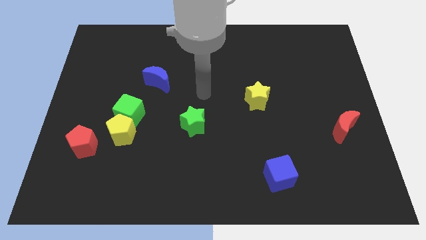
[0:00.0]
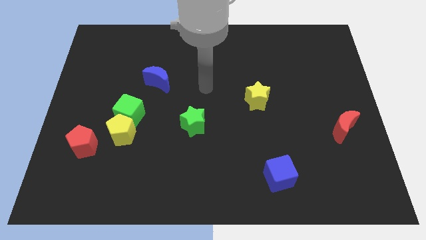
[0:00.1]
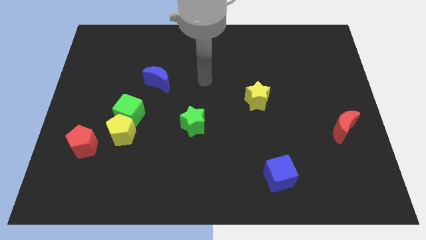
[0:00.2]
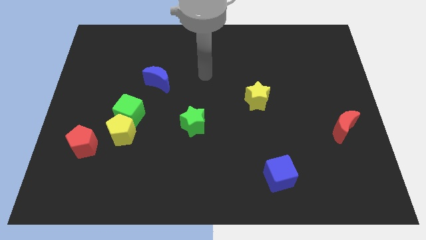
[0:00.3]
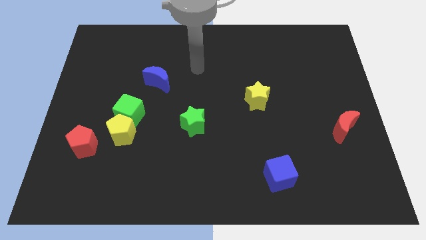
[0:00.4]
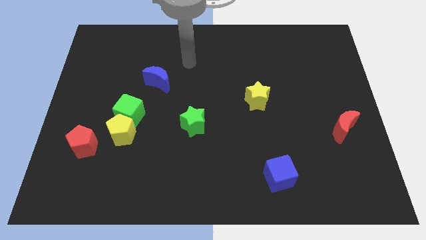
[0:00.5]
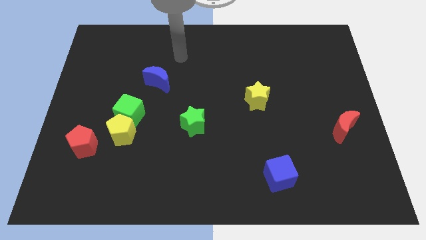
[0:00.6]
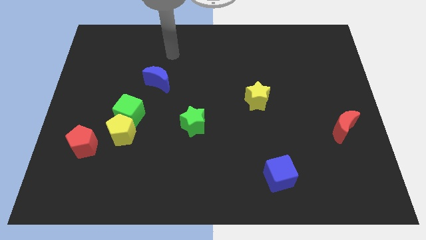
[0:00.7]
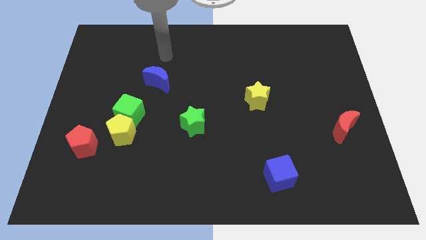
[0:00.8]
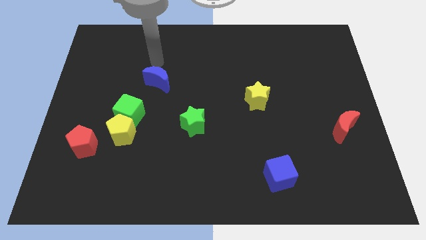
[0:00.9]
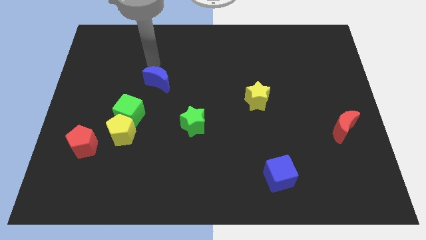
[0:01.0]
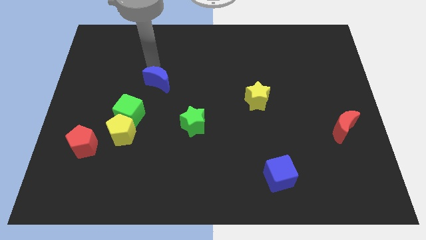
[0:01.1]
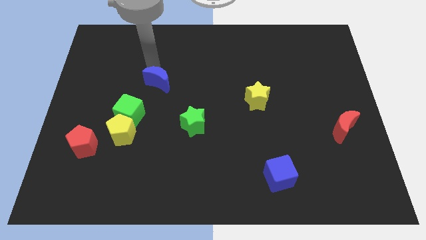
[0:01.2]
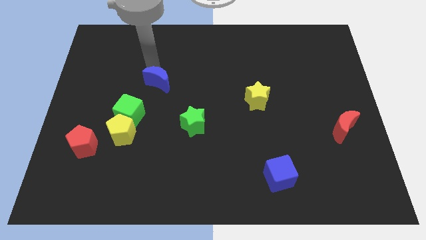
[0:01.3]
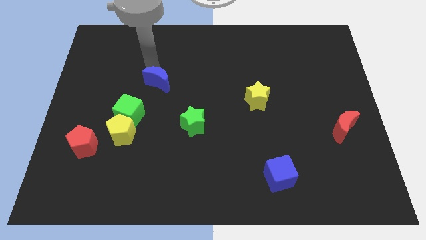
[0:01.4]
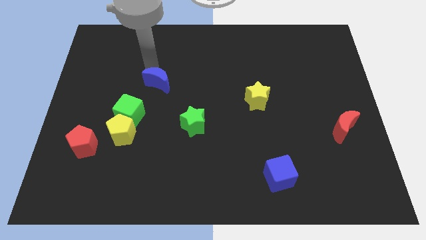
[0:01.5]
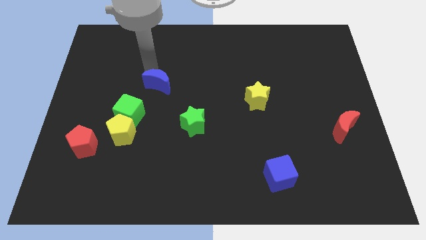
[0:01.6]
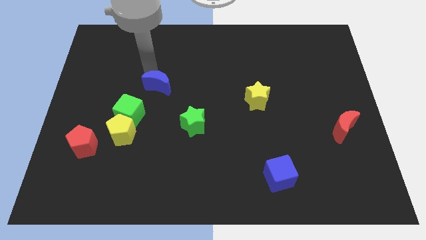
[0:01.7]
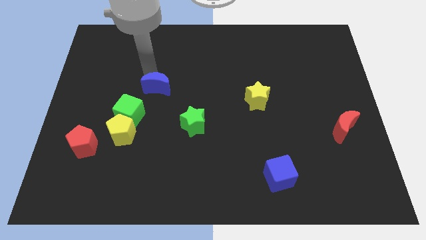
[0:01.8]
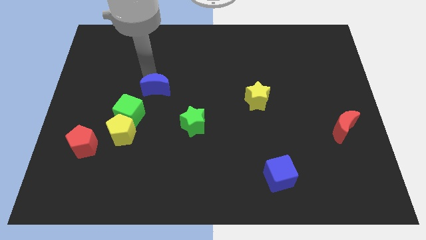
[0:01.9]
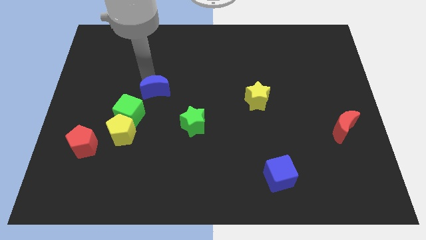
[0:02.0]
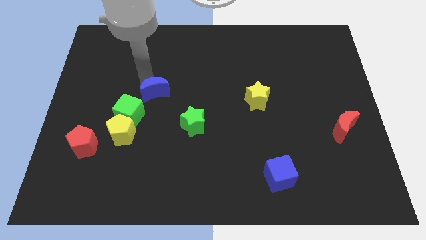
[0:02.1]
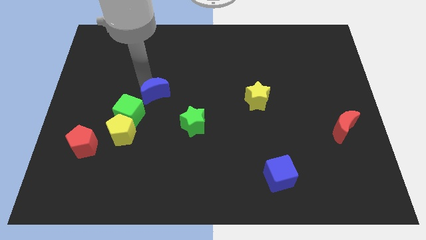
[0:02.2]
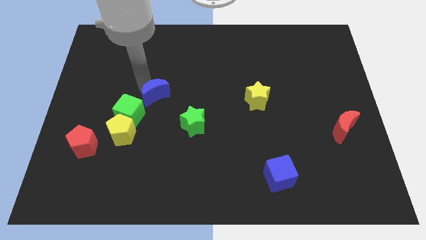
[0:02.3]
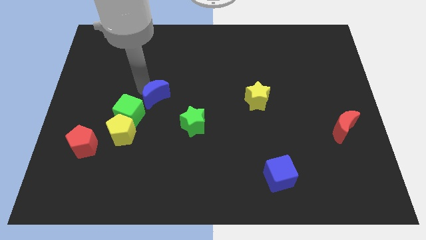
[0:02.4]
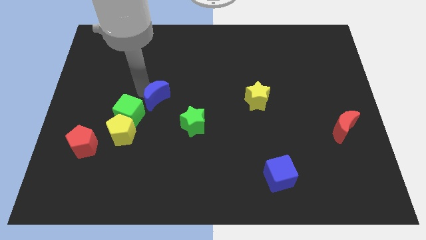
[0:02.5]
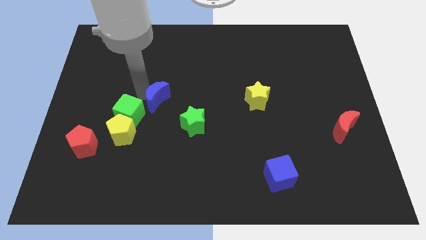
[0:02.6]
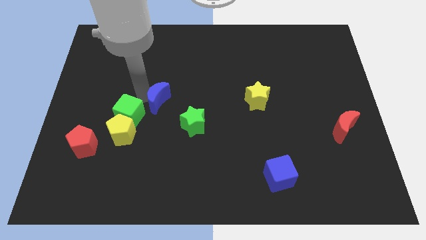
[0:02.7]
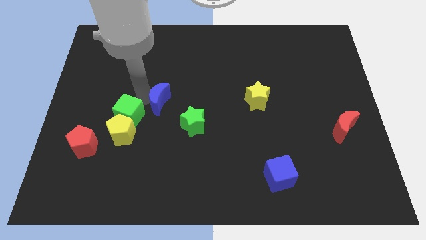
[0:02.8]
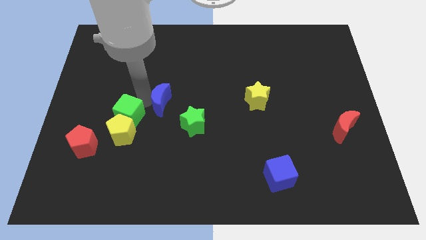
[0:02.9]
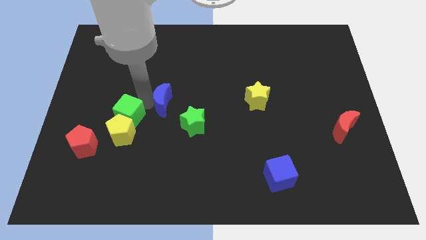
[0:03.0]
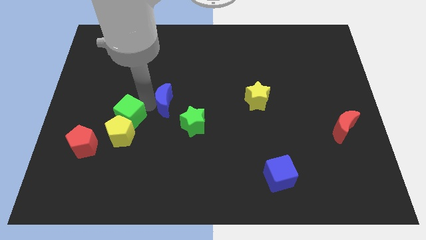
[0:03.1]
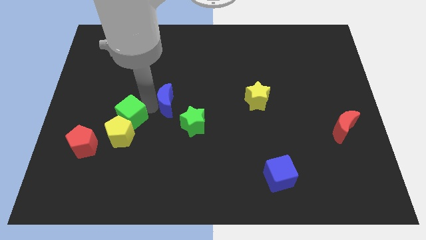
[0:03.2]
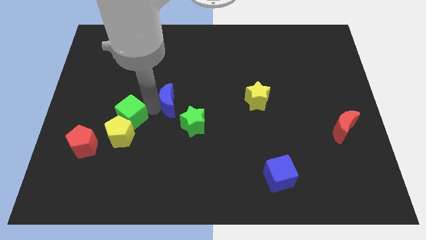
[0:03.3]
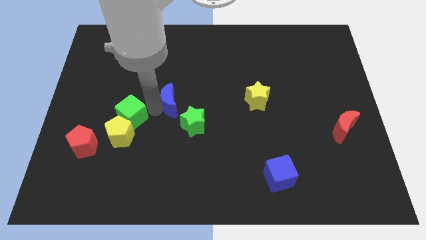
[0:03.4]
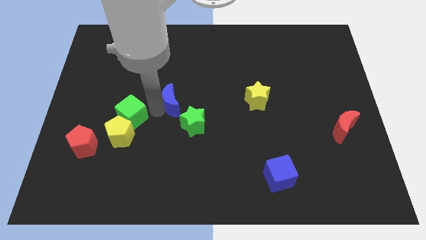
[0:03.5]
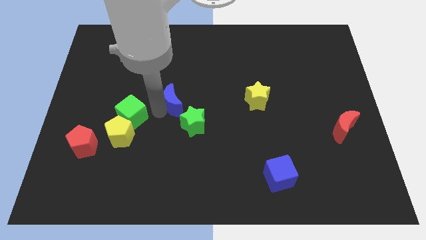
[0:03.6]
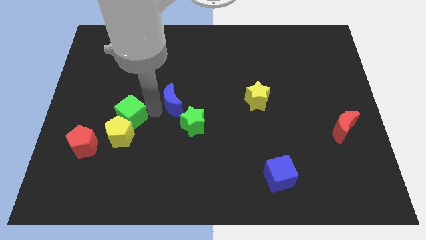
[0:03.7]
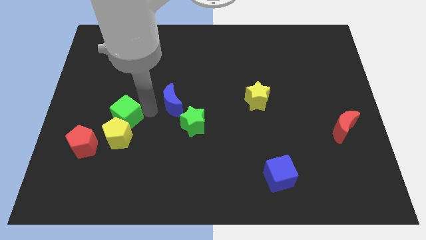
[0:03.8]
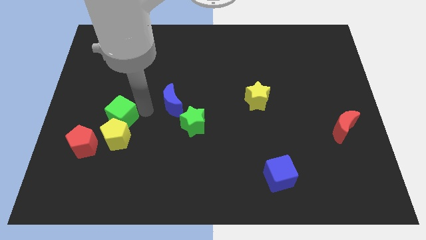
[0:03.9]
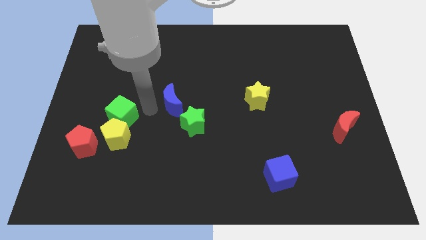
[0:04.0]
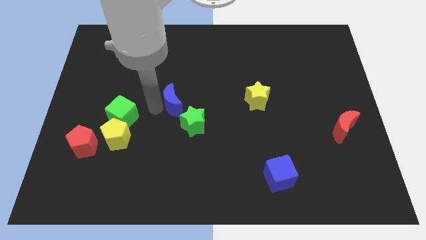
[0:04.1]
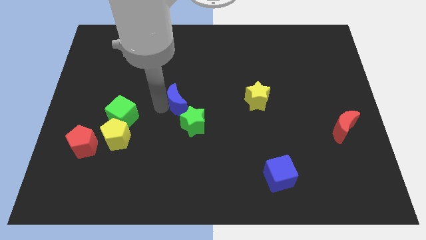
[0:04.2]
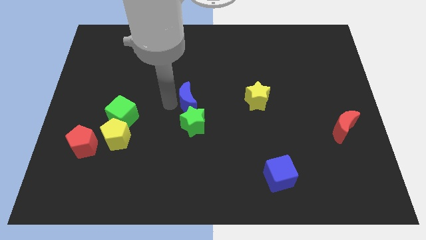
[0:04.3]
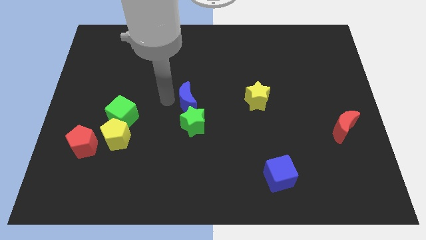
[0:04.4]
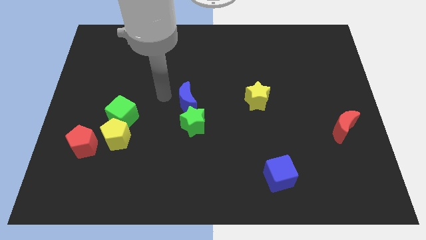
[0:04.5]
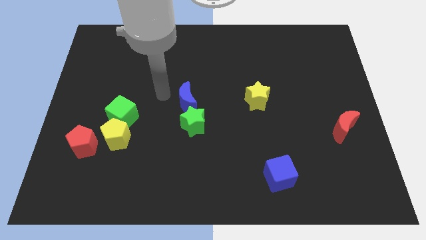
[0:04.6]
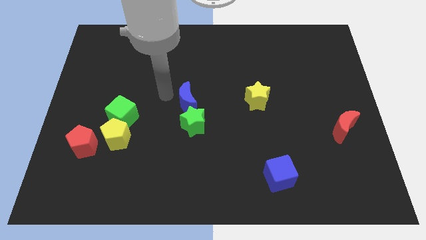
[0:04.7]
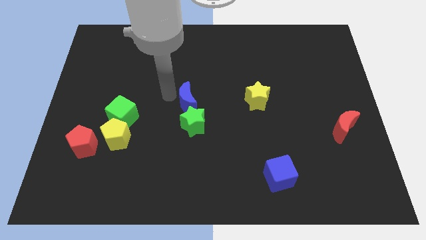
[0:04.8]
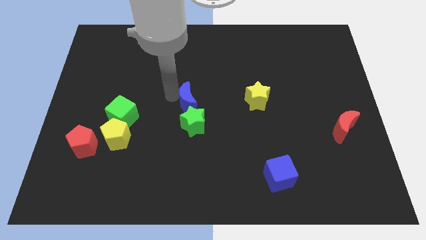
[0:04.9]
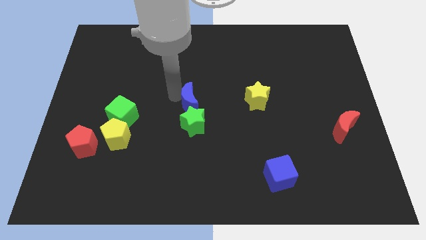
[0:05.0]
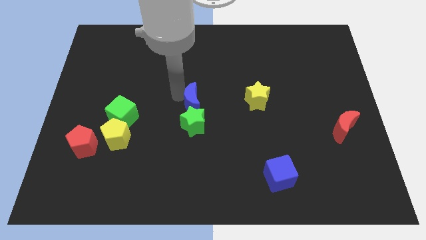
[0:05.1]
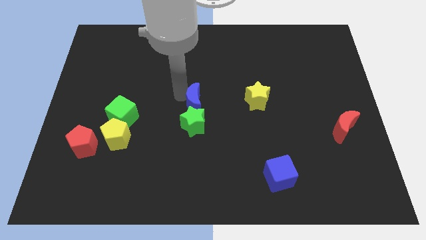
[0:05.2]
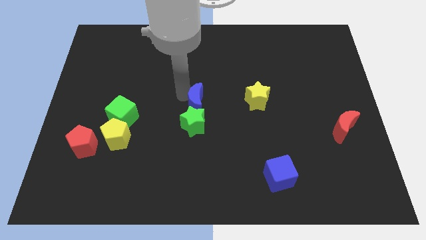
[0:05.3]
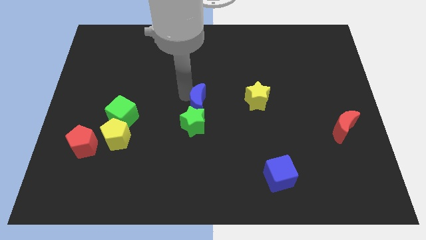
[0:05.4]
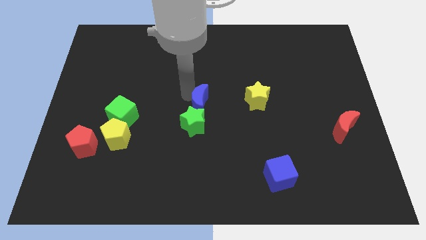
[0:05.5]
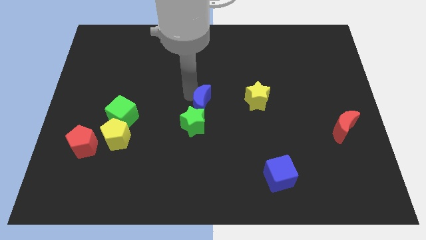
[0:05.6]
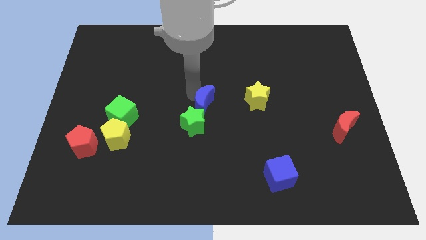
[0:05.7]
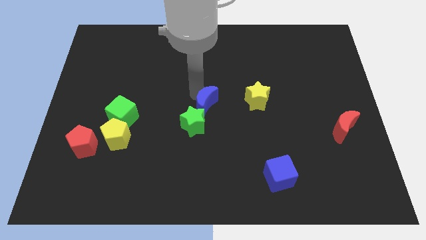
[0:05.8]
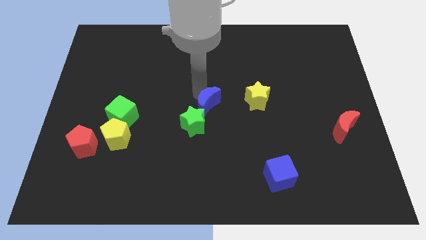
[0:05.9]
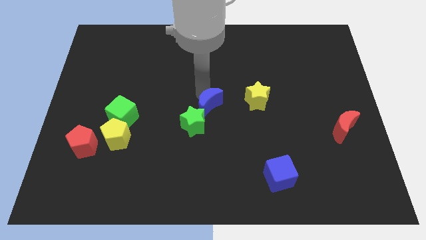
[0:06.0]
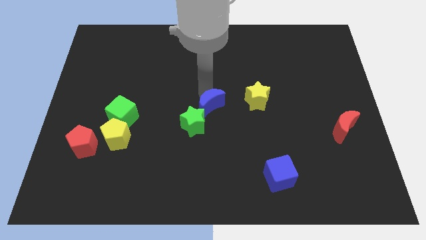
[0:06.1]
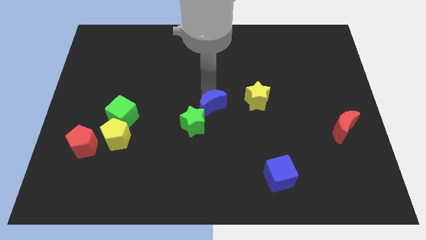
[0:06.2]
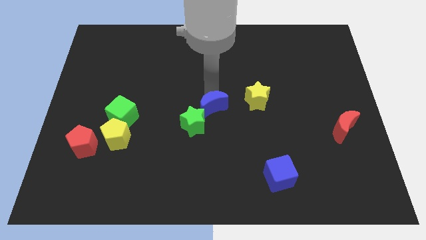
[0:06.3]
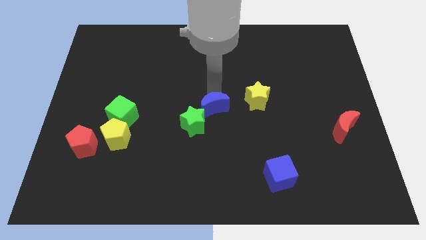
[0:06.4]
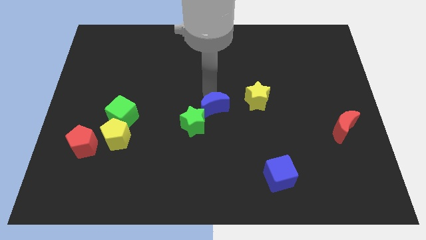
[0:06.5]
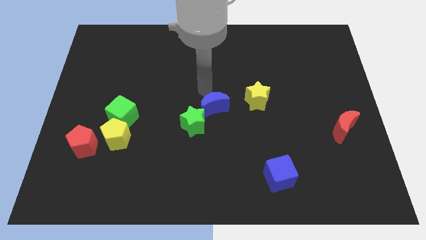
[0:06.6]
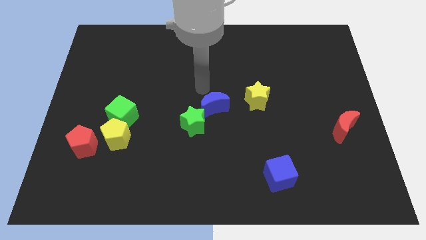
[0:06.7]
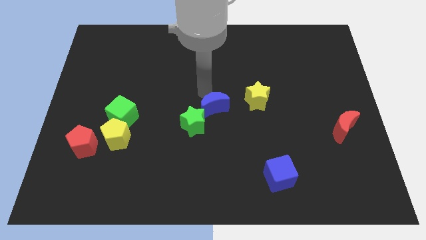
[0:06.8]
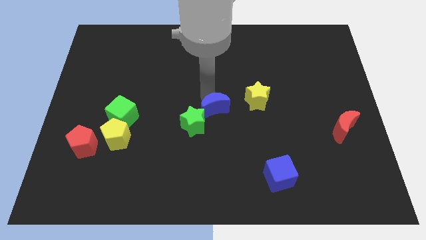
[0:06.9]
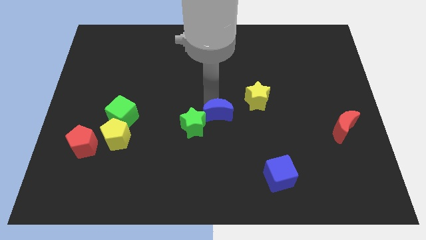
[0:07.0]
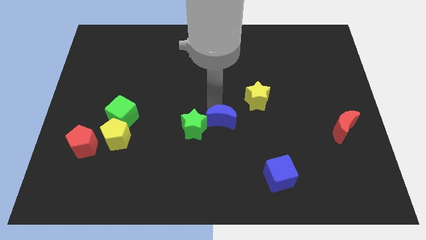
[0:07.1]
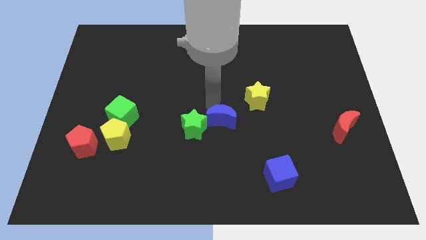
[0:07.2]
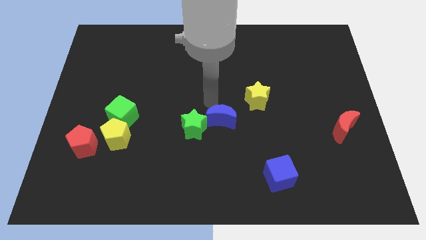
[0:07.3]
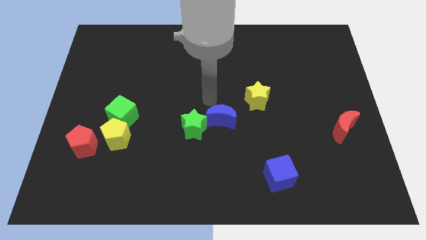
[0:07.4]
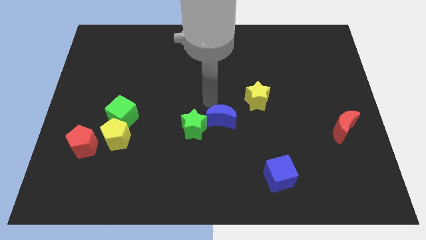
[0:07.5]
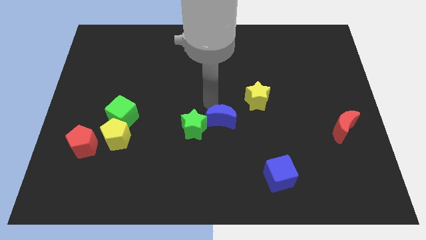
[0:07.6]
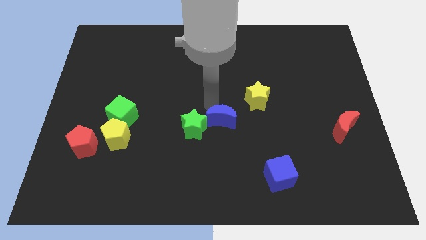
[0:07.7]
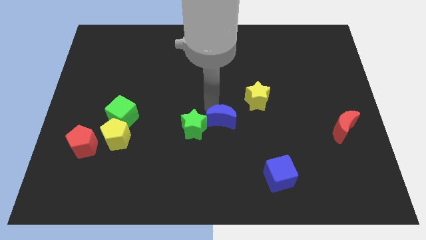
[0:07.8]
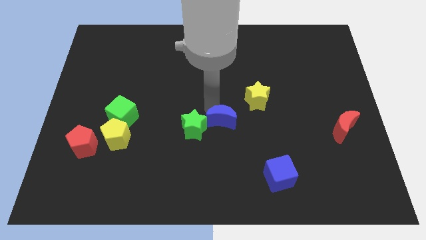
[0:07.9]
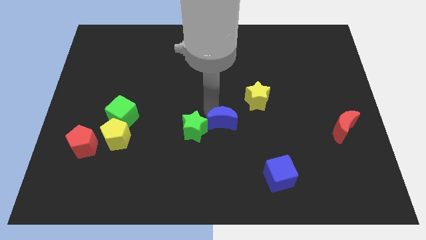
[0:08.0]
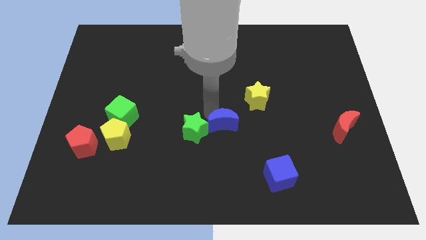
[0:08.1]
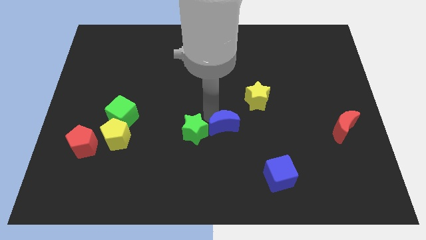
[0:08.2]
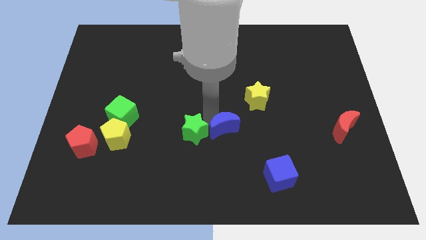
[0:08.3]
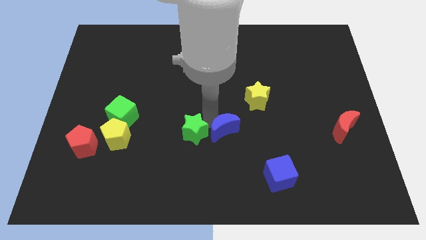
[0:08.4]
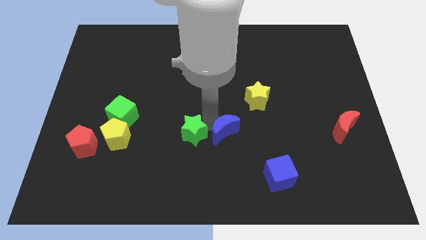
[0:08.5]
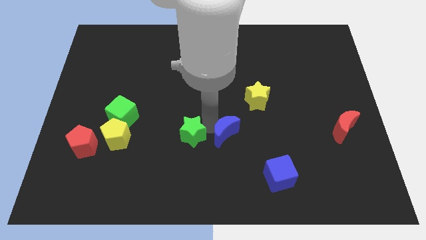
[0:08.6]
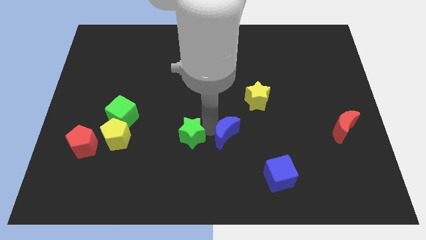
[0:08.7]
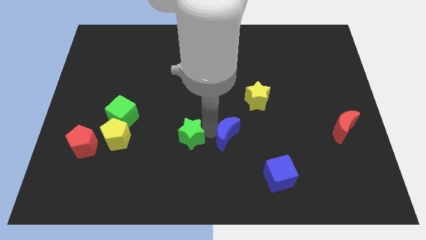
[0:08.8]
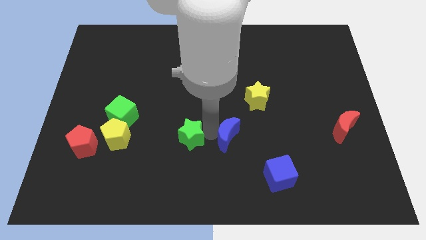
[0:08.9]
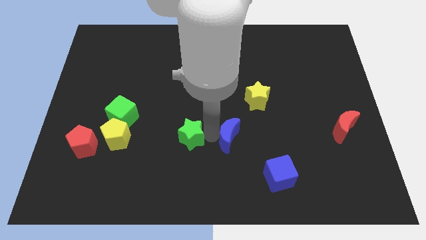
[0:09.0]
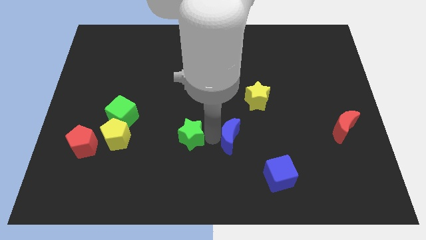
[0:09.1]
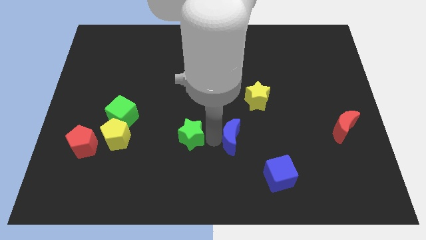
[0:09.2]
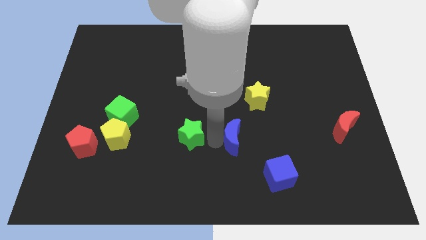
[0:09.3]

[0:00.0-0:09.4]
put the blue moon diagonally up and to the left of the blue cube
